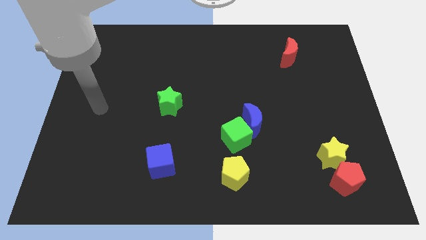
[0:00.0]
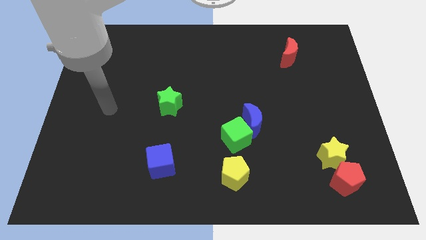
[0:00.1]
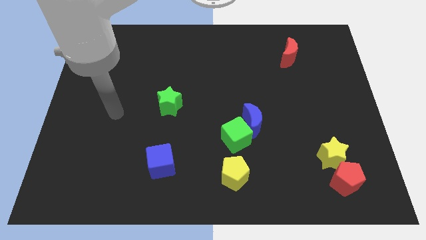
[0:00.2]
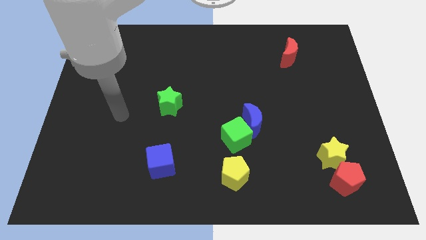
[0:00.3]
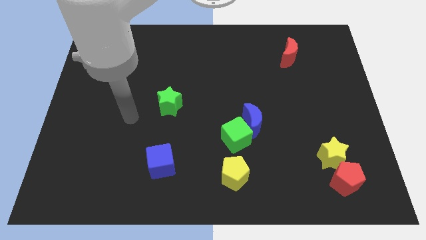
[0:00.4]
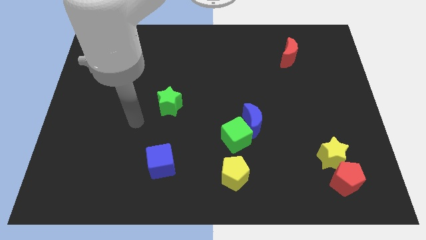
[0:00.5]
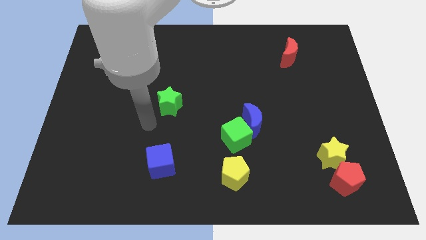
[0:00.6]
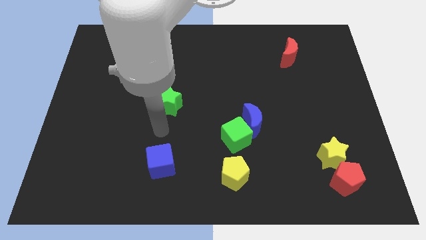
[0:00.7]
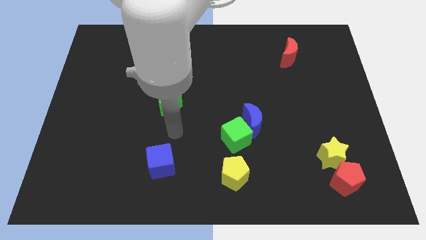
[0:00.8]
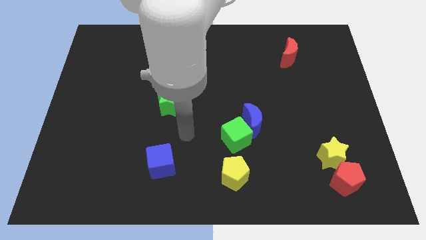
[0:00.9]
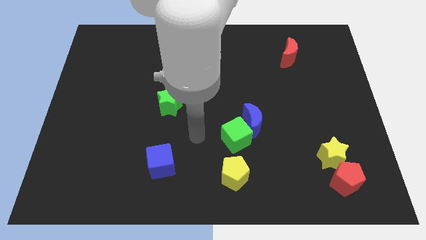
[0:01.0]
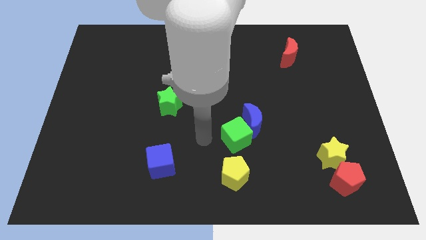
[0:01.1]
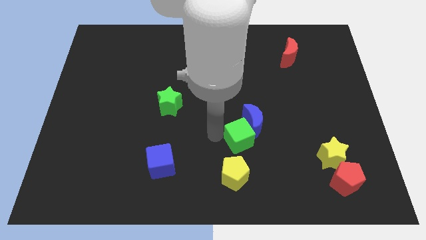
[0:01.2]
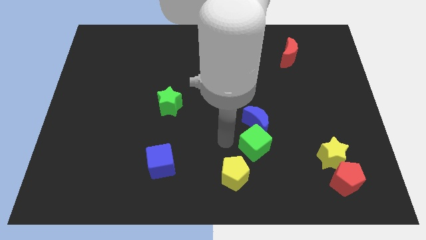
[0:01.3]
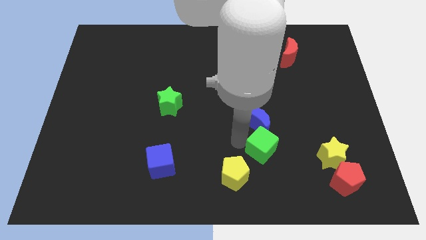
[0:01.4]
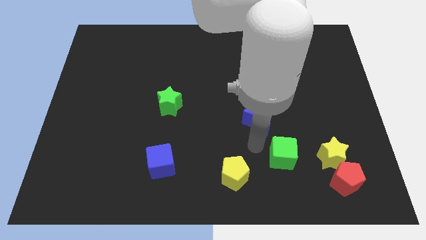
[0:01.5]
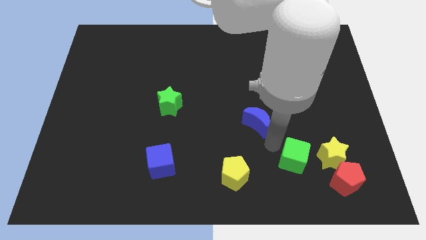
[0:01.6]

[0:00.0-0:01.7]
separate the blue moon from the green cube

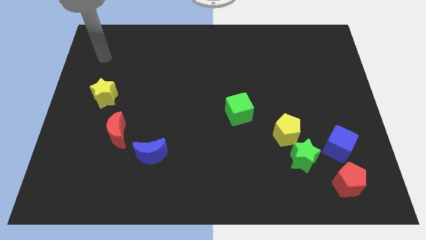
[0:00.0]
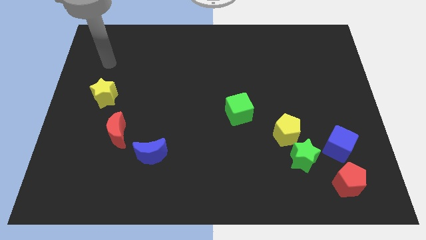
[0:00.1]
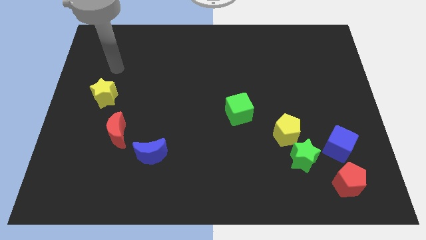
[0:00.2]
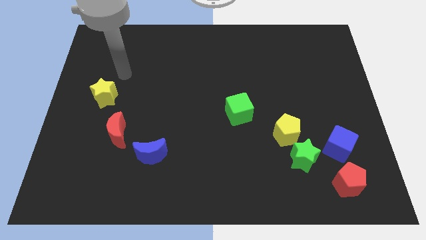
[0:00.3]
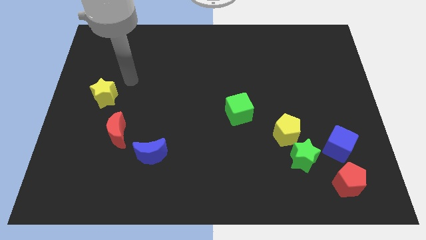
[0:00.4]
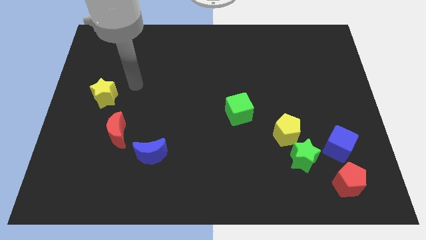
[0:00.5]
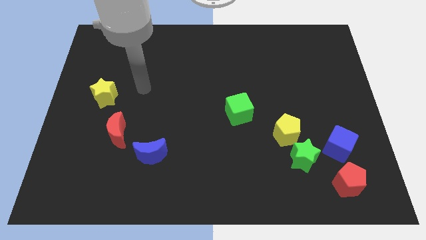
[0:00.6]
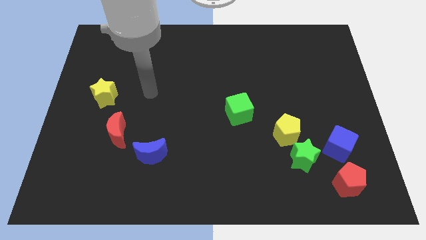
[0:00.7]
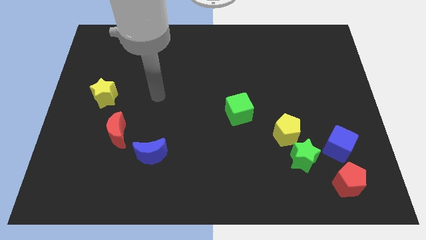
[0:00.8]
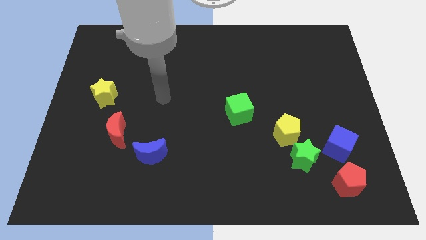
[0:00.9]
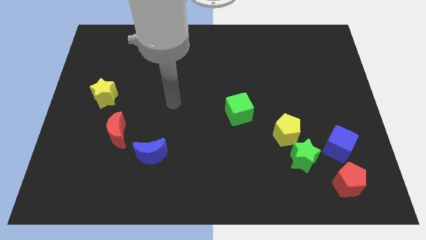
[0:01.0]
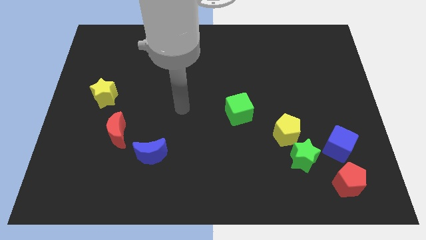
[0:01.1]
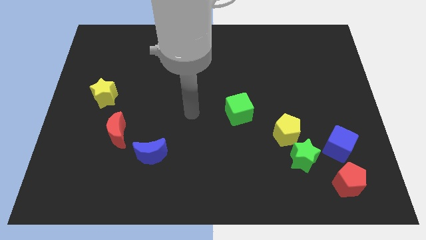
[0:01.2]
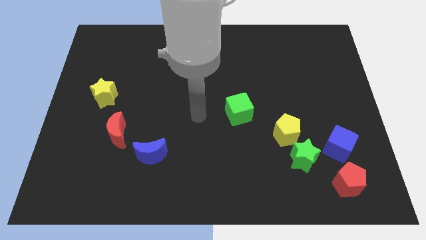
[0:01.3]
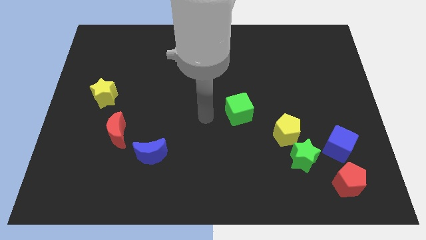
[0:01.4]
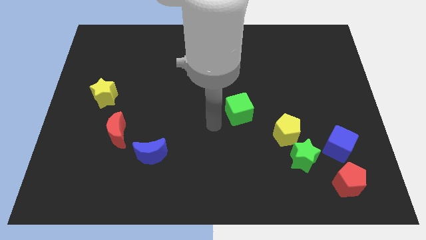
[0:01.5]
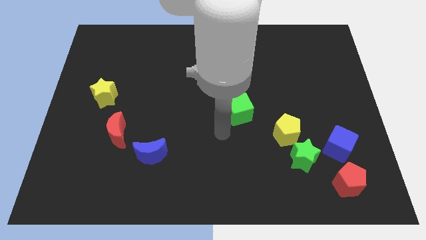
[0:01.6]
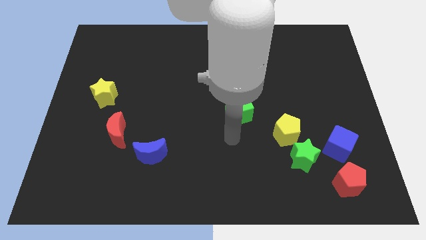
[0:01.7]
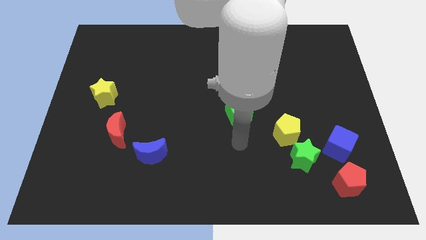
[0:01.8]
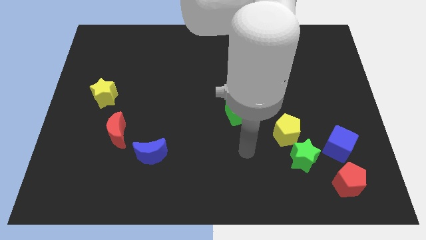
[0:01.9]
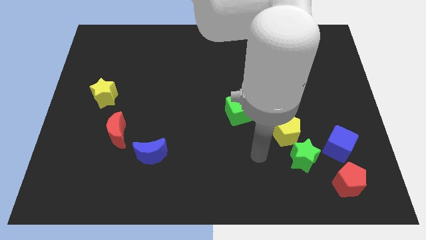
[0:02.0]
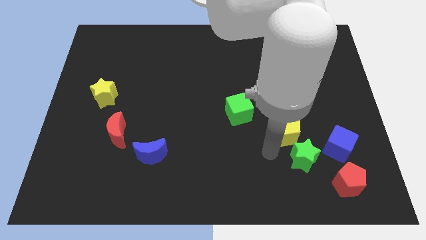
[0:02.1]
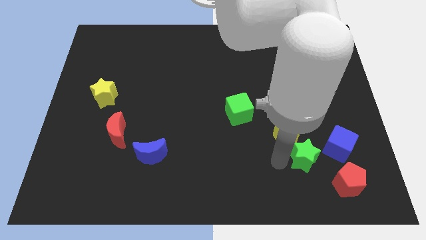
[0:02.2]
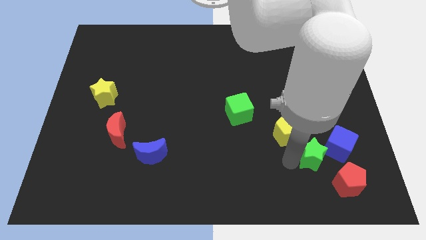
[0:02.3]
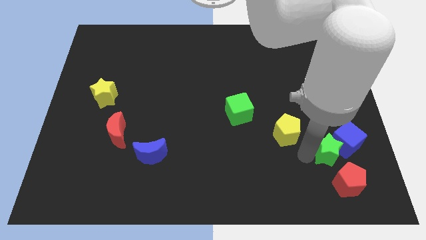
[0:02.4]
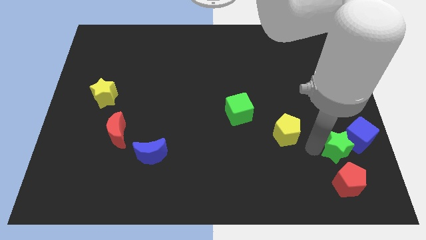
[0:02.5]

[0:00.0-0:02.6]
pull the yellow pentagon apart from the green star

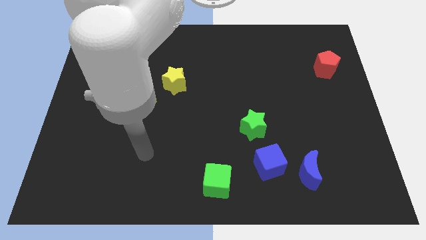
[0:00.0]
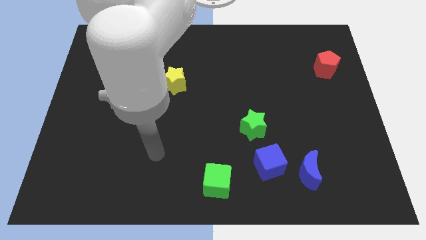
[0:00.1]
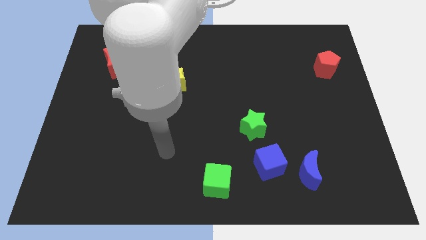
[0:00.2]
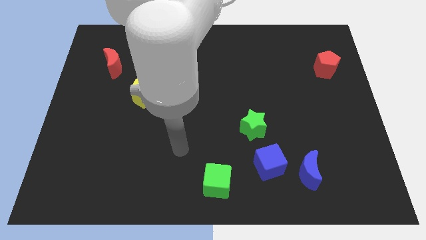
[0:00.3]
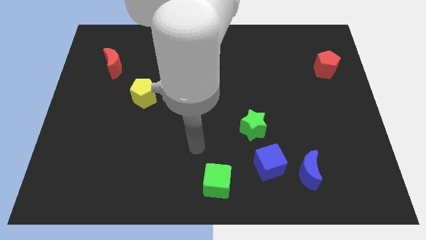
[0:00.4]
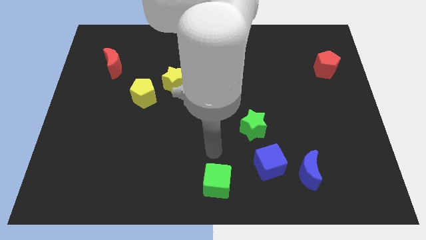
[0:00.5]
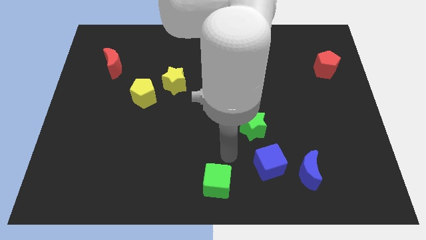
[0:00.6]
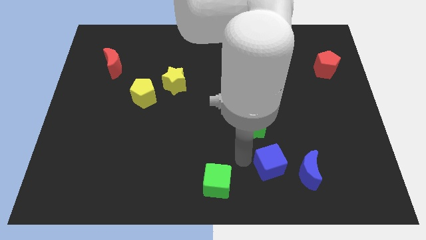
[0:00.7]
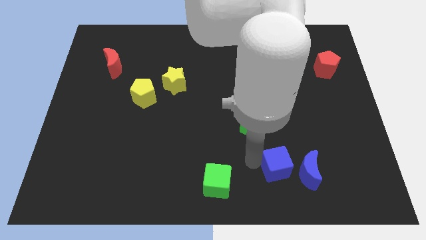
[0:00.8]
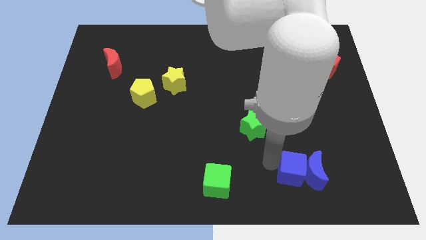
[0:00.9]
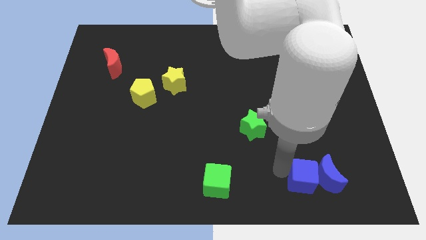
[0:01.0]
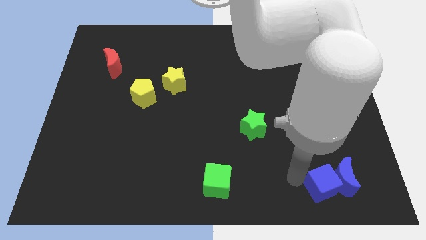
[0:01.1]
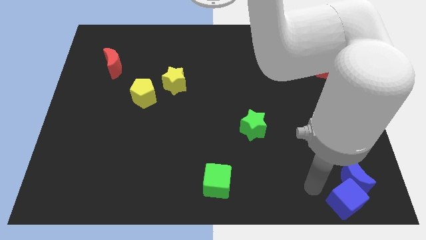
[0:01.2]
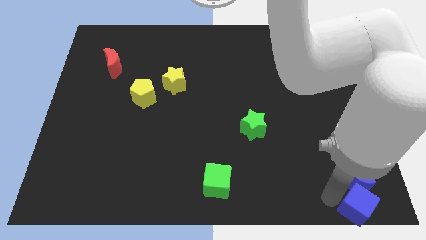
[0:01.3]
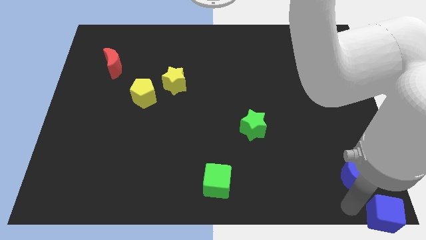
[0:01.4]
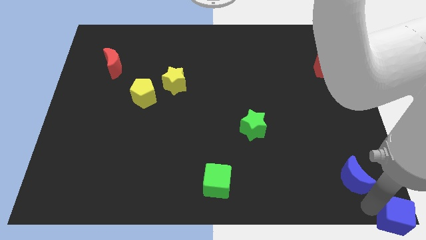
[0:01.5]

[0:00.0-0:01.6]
separate the blue moon from the blue cube

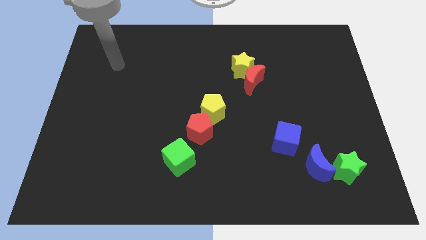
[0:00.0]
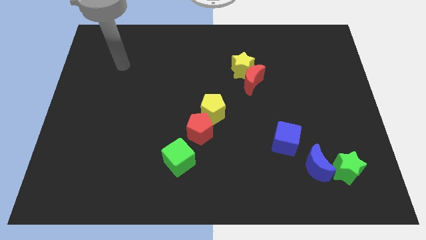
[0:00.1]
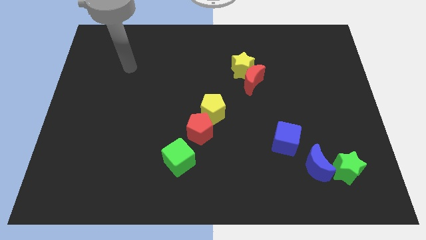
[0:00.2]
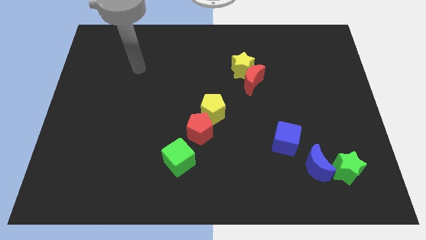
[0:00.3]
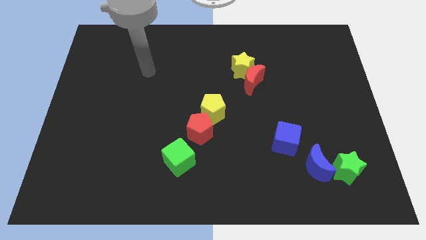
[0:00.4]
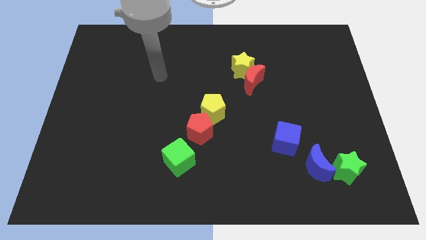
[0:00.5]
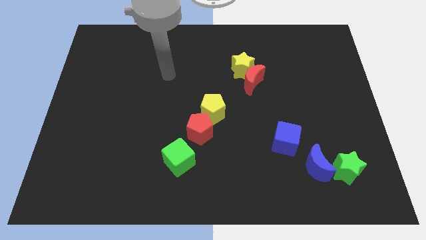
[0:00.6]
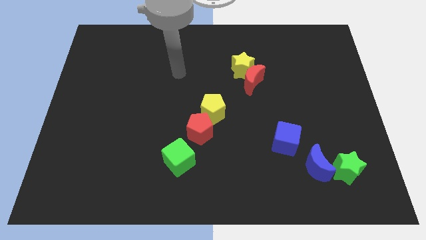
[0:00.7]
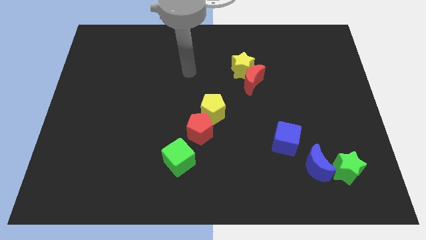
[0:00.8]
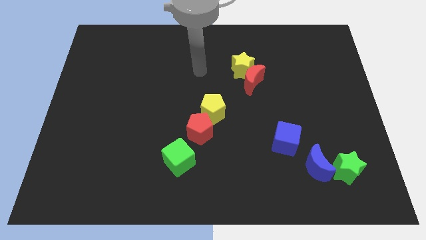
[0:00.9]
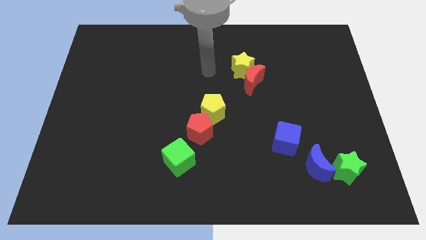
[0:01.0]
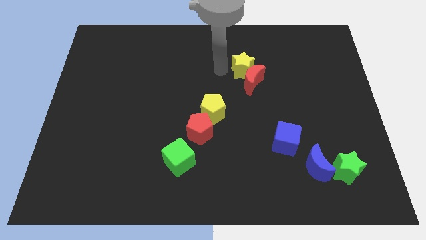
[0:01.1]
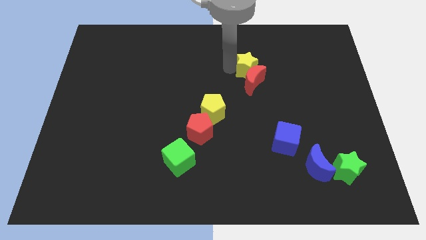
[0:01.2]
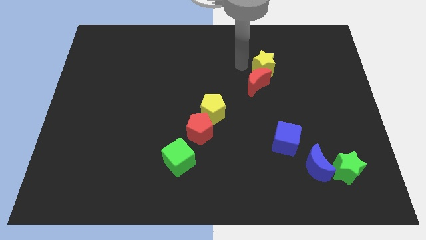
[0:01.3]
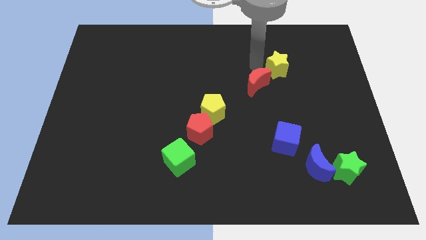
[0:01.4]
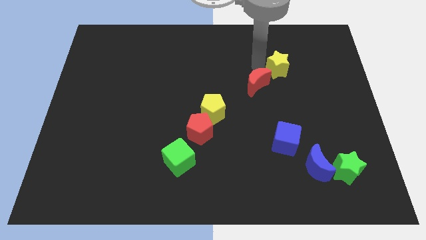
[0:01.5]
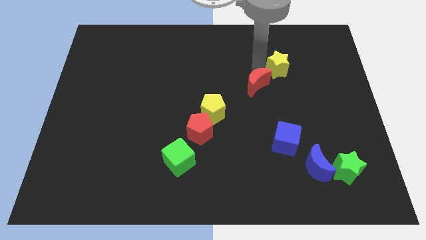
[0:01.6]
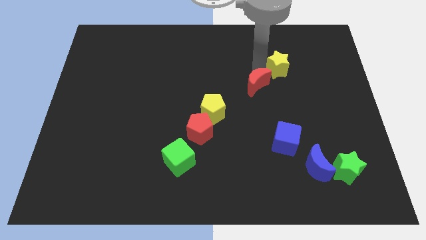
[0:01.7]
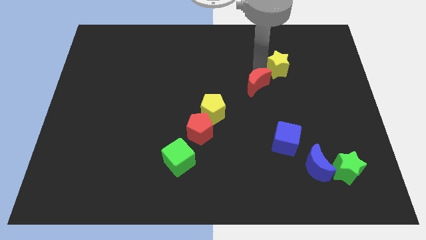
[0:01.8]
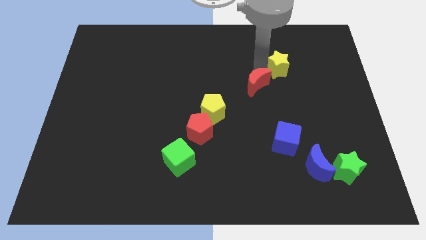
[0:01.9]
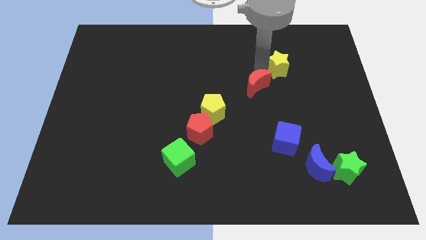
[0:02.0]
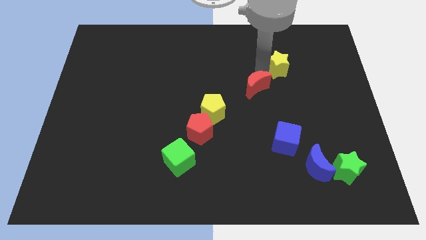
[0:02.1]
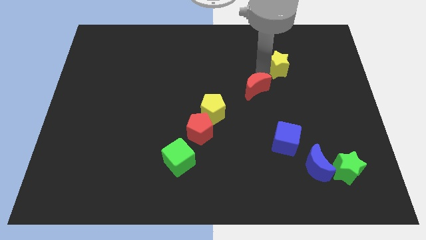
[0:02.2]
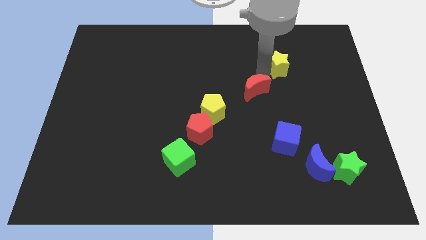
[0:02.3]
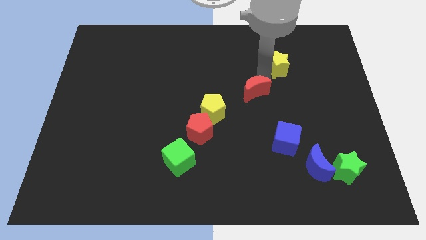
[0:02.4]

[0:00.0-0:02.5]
separate the red moon from the yellow star

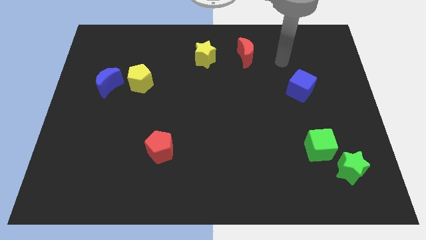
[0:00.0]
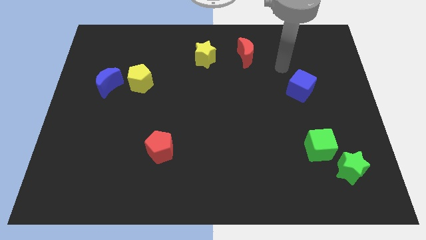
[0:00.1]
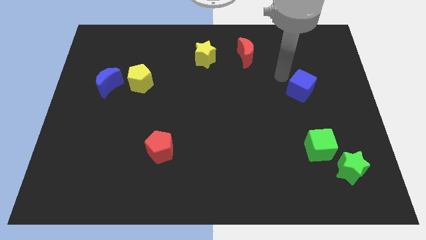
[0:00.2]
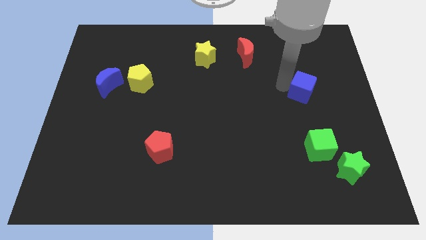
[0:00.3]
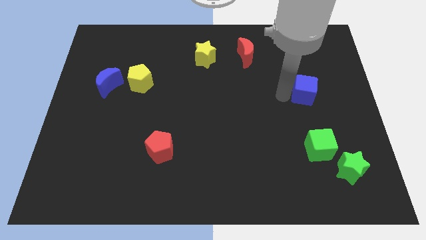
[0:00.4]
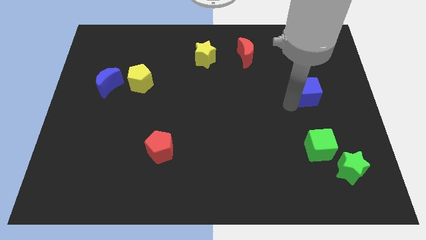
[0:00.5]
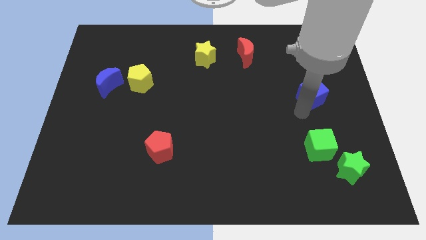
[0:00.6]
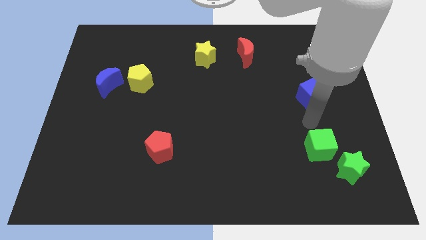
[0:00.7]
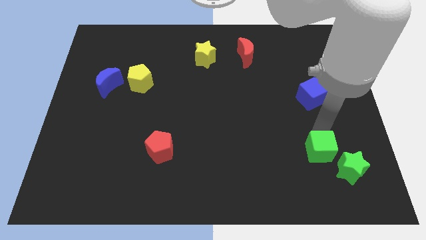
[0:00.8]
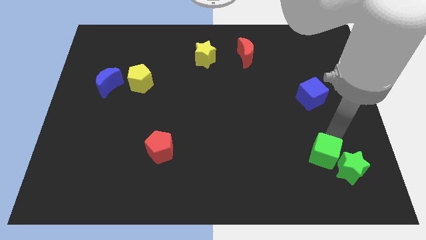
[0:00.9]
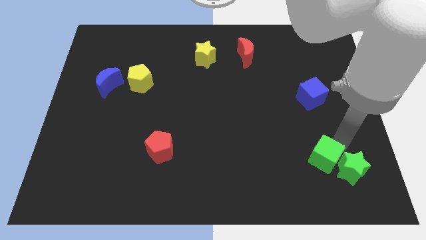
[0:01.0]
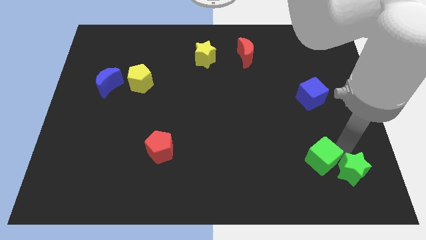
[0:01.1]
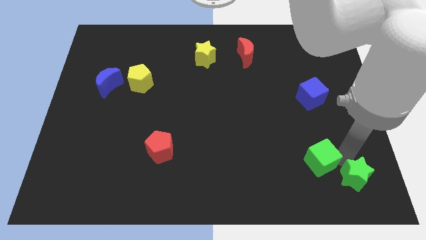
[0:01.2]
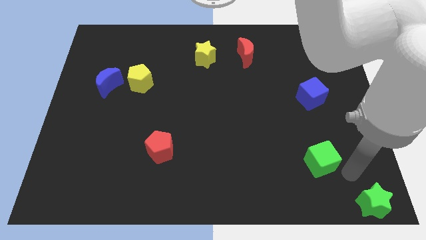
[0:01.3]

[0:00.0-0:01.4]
pull the green cube apart from the green star
